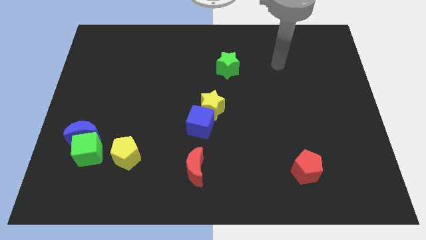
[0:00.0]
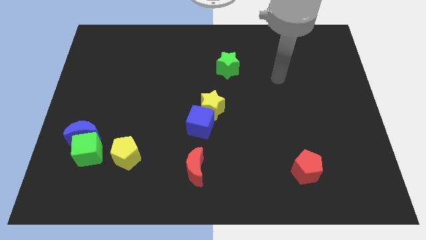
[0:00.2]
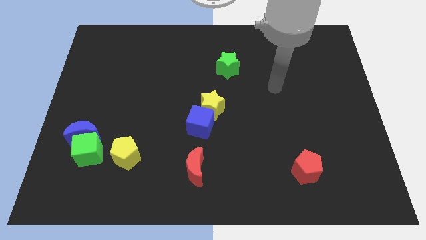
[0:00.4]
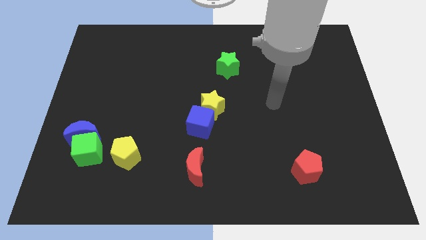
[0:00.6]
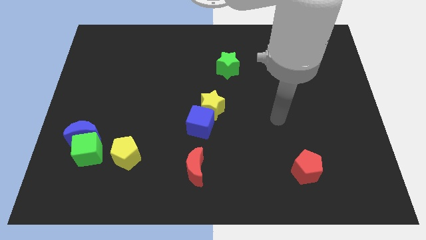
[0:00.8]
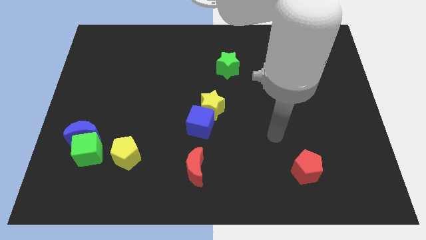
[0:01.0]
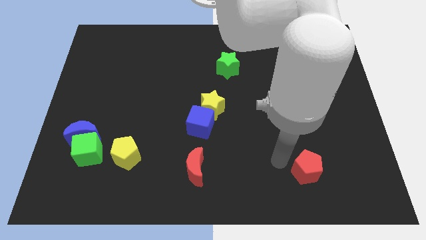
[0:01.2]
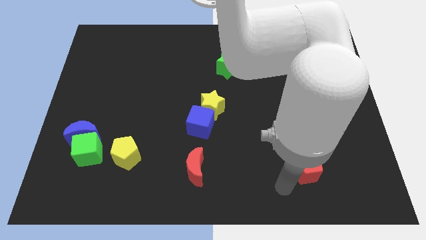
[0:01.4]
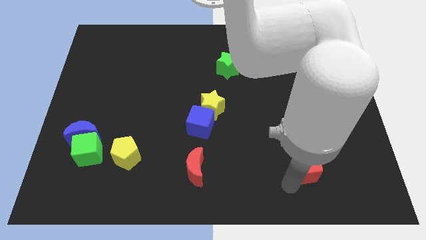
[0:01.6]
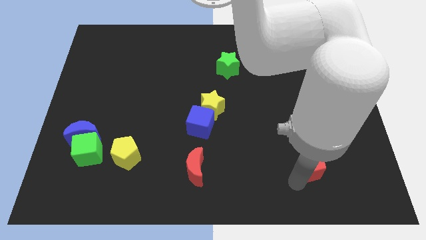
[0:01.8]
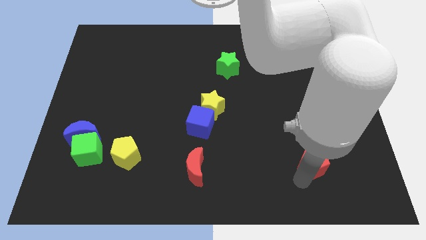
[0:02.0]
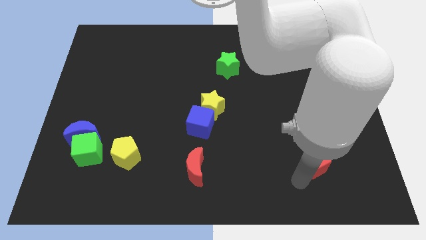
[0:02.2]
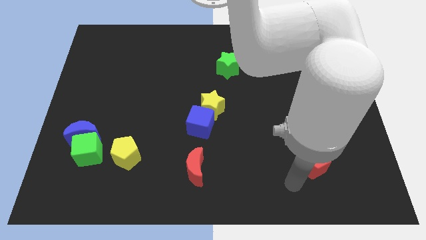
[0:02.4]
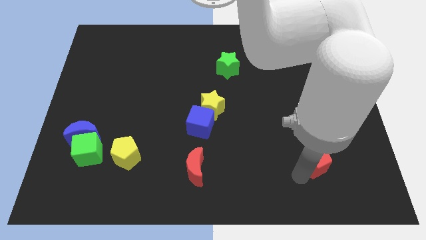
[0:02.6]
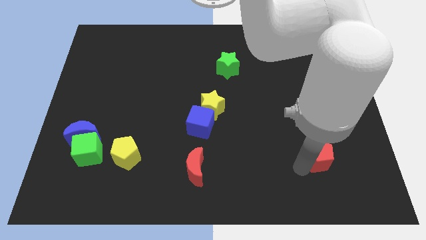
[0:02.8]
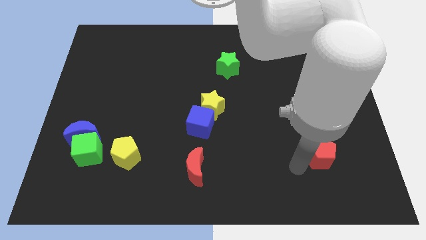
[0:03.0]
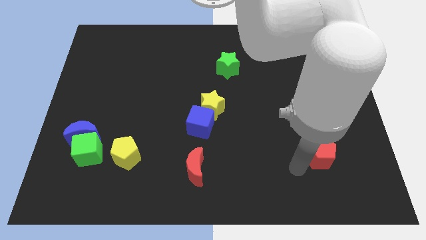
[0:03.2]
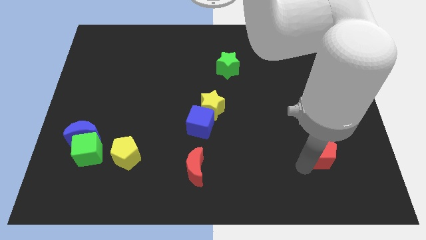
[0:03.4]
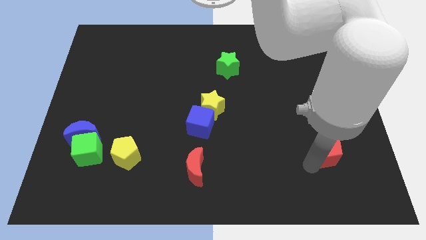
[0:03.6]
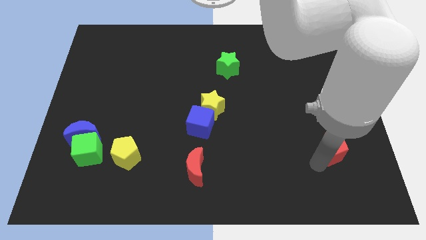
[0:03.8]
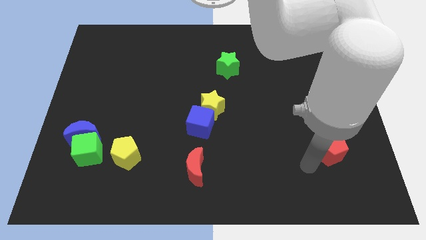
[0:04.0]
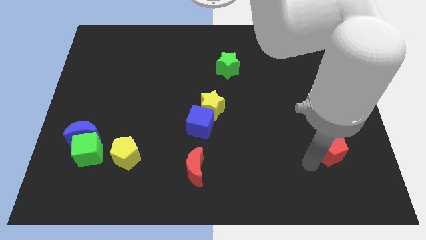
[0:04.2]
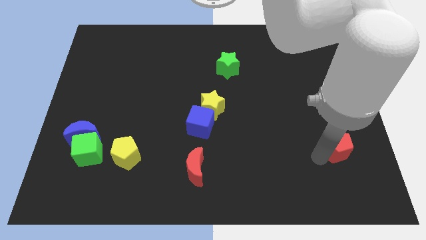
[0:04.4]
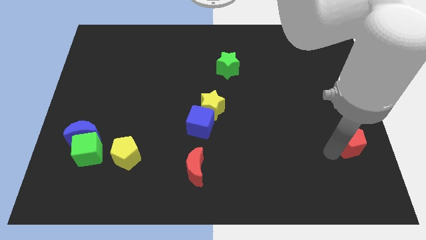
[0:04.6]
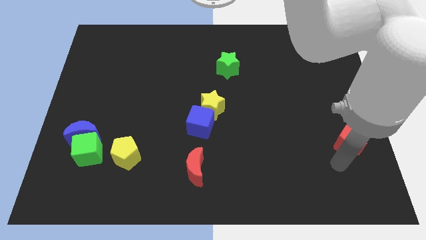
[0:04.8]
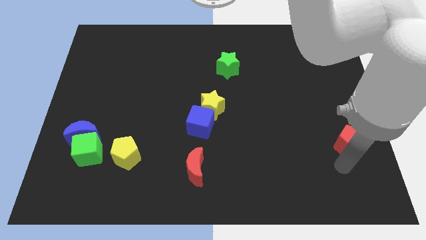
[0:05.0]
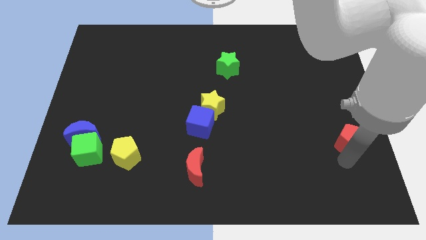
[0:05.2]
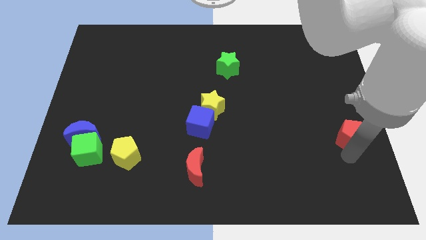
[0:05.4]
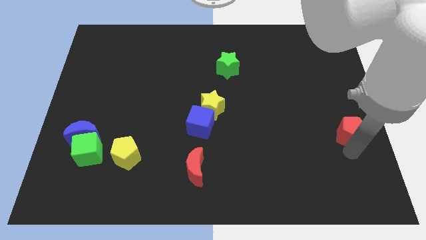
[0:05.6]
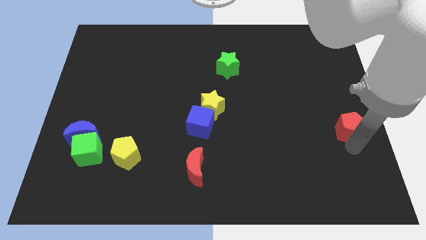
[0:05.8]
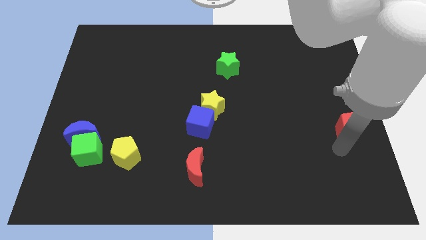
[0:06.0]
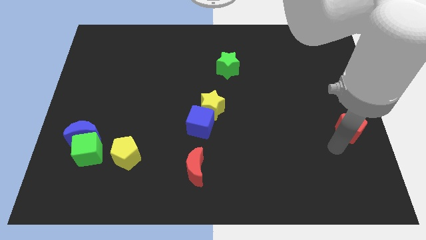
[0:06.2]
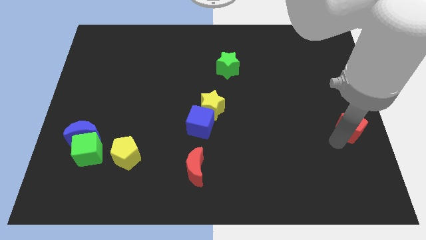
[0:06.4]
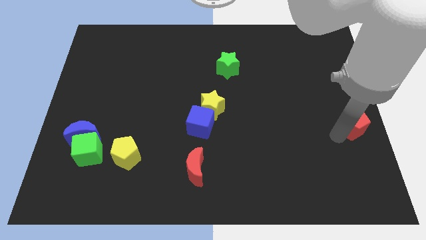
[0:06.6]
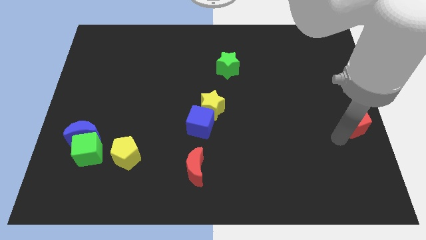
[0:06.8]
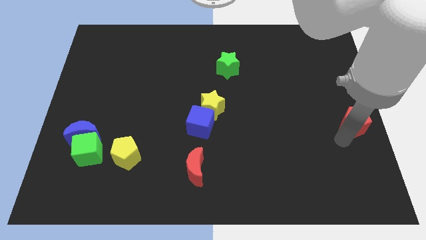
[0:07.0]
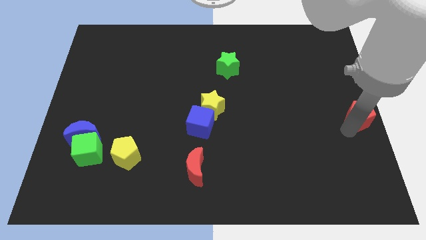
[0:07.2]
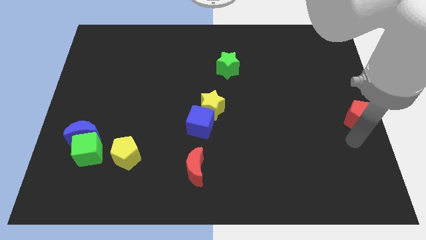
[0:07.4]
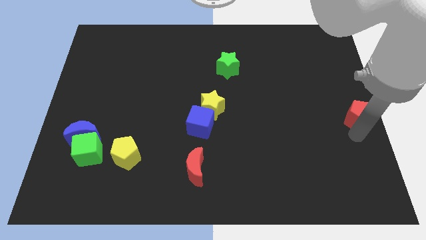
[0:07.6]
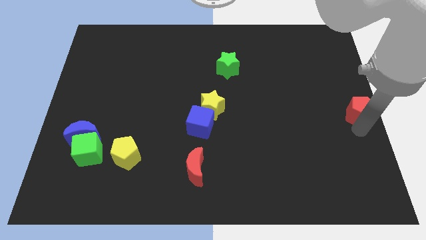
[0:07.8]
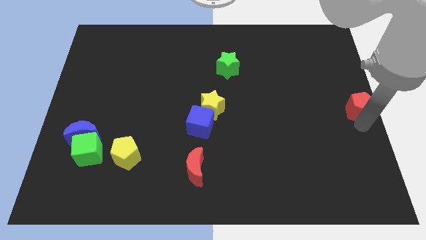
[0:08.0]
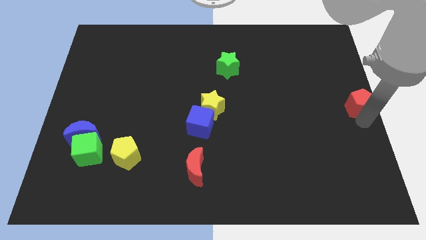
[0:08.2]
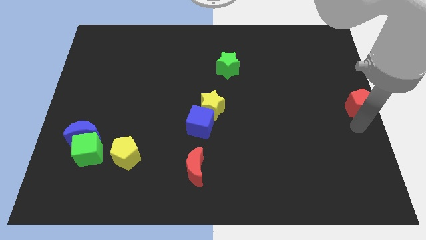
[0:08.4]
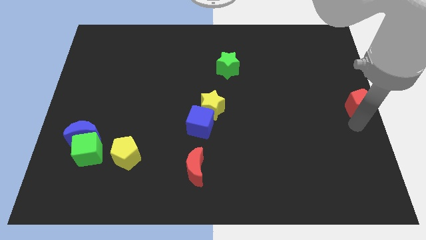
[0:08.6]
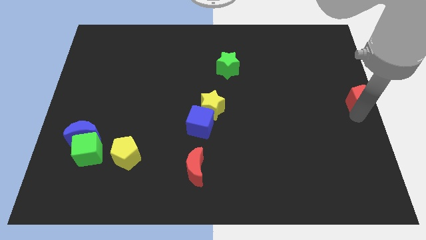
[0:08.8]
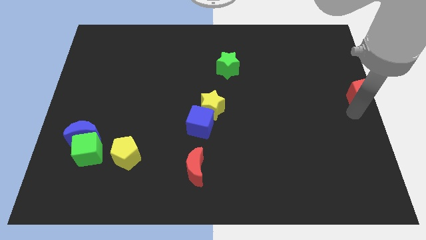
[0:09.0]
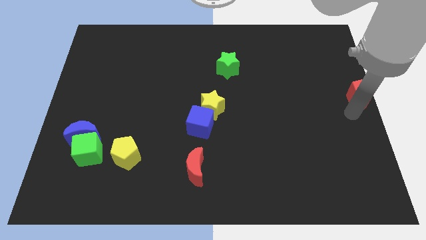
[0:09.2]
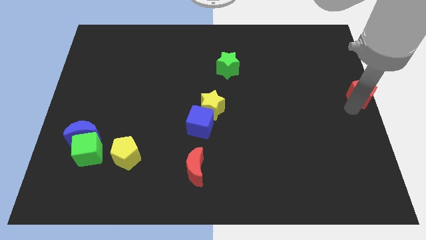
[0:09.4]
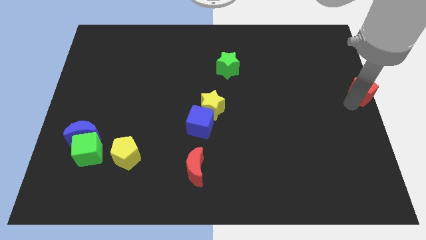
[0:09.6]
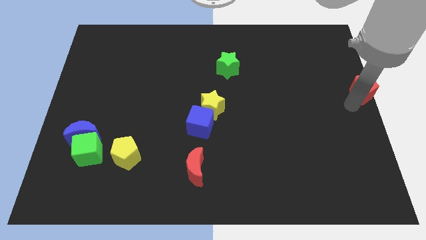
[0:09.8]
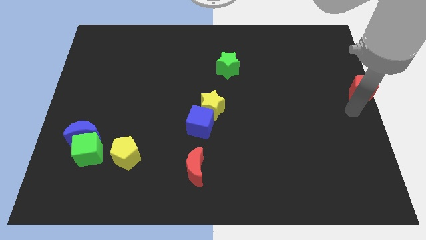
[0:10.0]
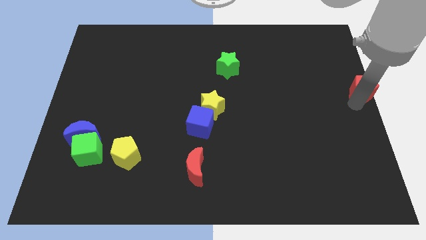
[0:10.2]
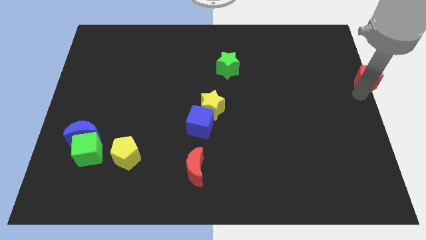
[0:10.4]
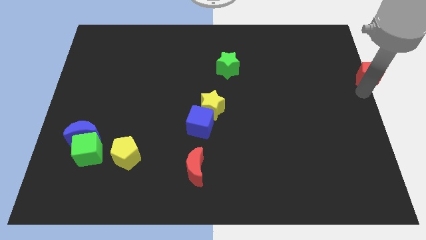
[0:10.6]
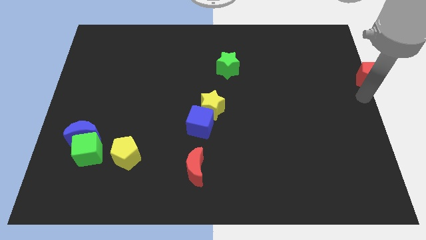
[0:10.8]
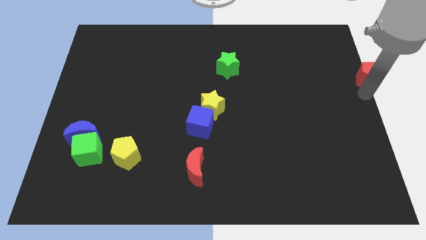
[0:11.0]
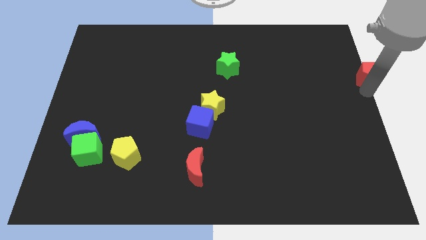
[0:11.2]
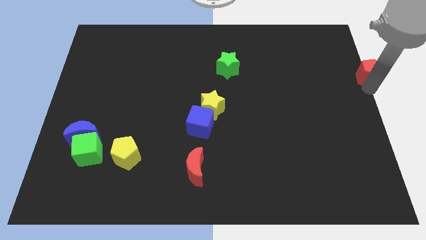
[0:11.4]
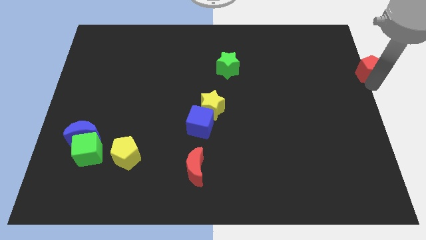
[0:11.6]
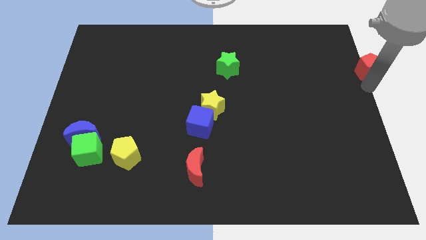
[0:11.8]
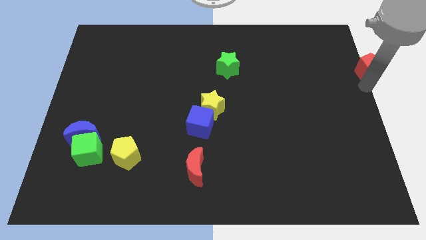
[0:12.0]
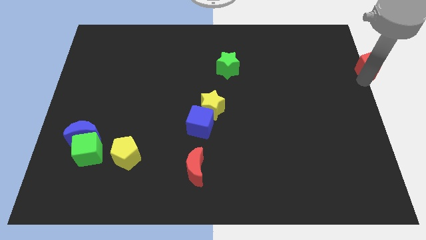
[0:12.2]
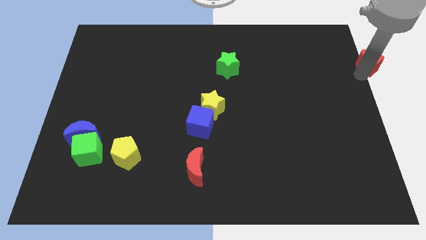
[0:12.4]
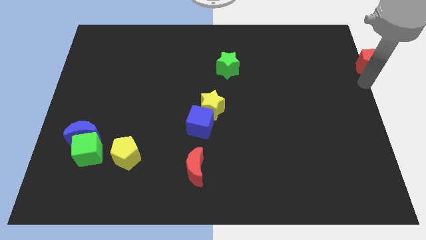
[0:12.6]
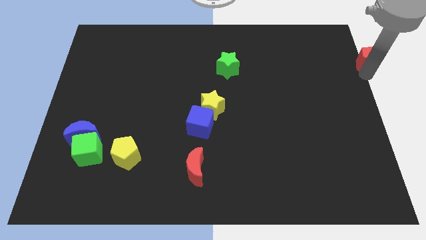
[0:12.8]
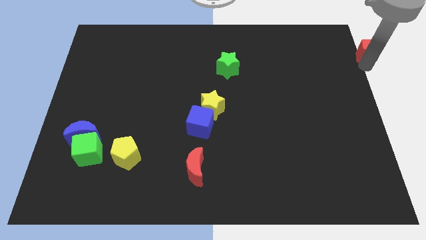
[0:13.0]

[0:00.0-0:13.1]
push the red pentagon to the upper right corner
